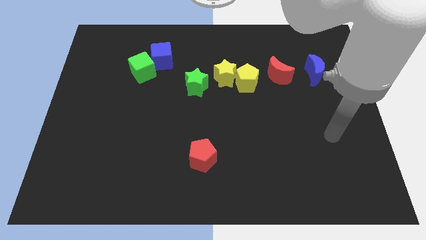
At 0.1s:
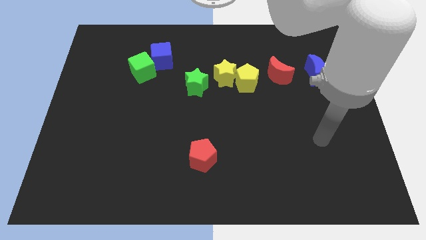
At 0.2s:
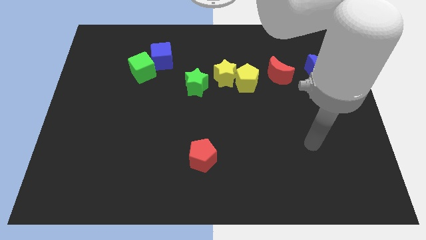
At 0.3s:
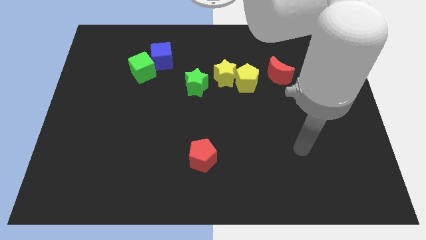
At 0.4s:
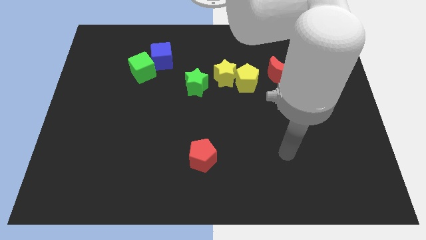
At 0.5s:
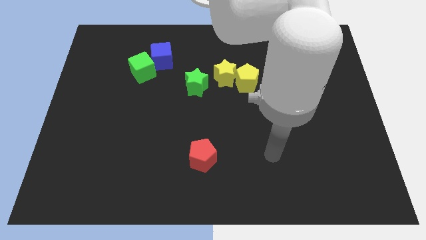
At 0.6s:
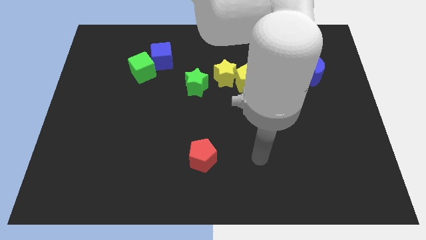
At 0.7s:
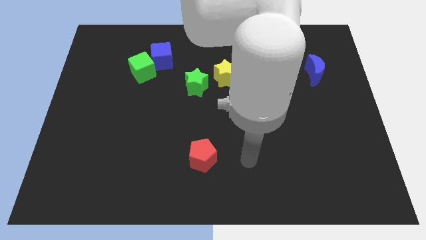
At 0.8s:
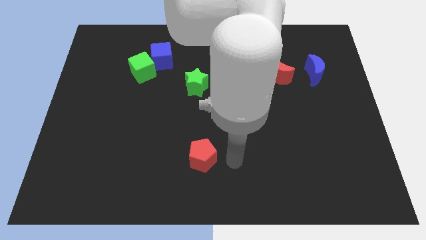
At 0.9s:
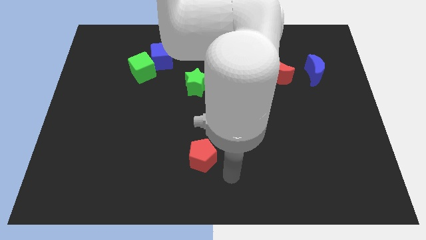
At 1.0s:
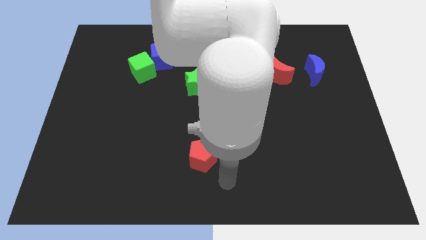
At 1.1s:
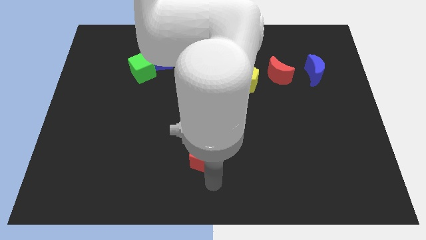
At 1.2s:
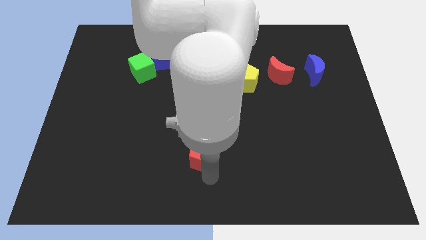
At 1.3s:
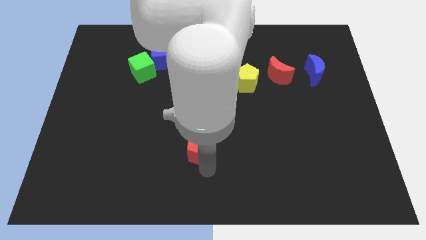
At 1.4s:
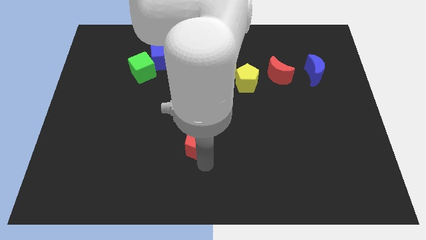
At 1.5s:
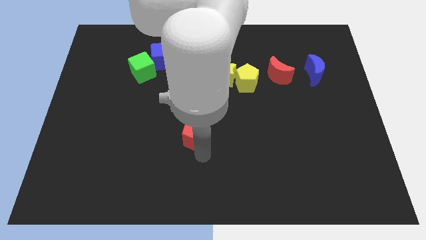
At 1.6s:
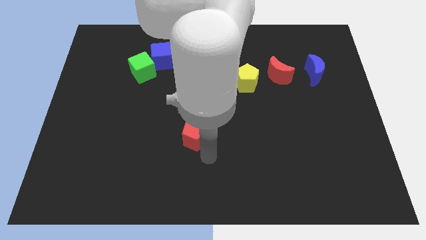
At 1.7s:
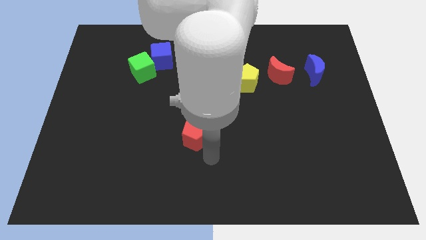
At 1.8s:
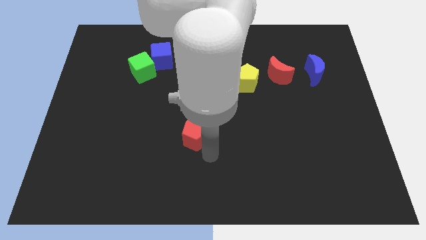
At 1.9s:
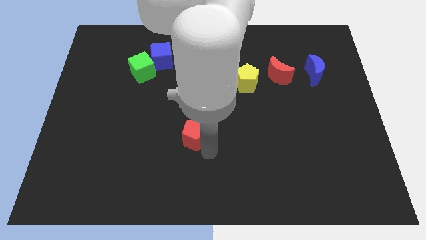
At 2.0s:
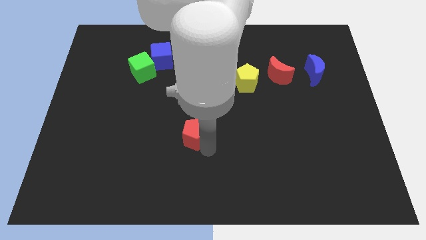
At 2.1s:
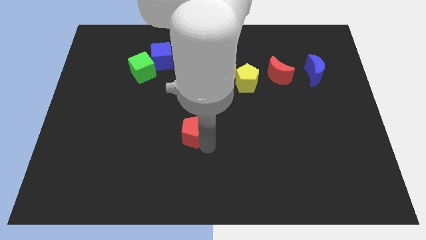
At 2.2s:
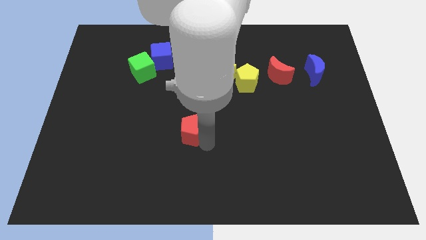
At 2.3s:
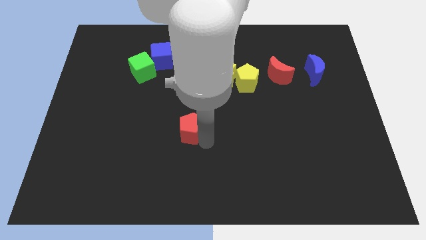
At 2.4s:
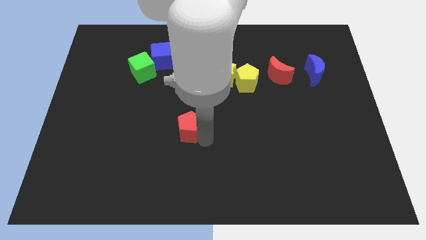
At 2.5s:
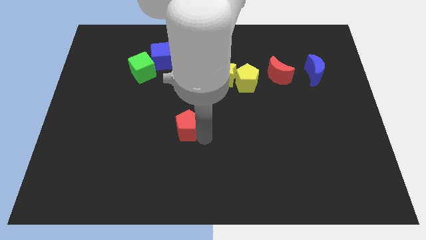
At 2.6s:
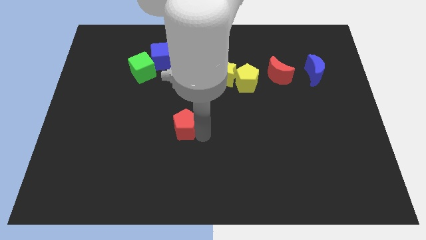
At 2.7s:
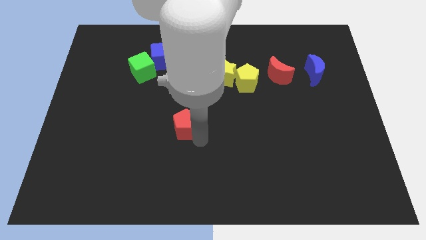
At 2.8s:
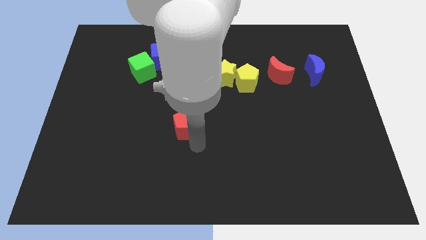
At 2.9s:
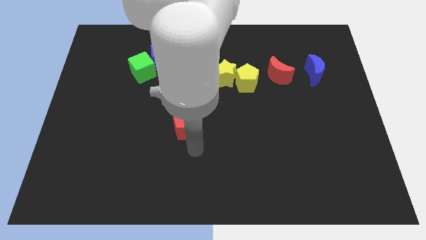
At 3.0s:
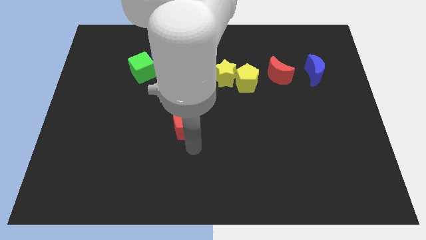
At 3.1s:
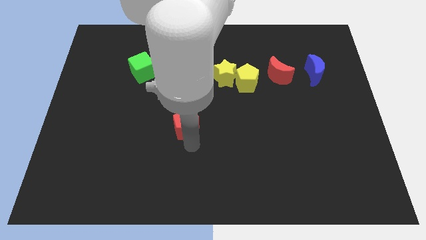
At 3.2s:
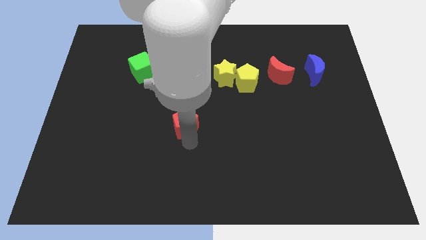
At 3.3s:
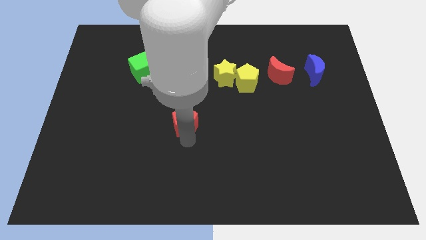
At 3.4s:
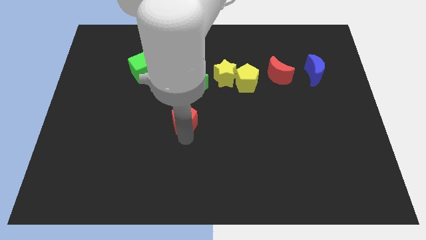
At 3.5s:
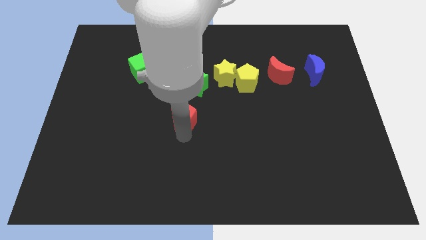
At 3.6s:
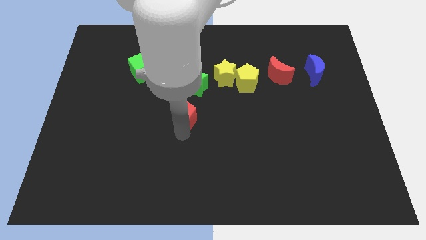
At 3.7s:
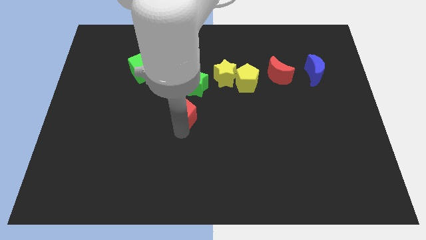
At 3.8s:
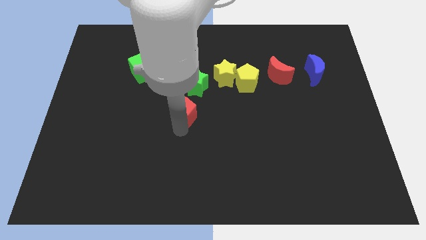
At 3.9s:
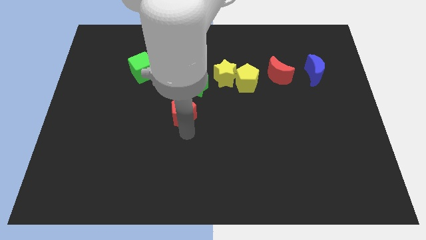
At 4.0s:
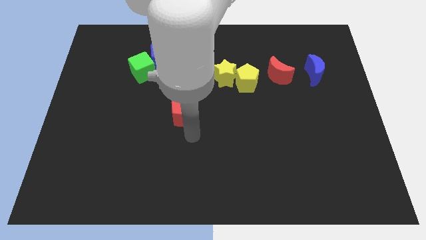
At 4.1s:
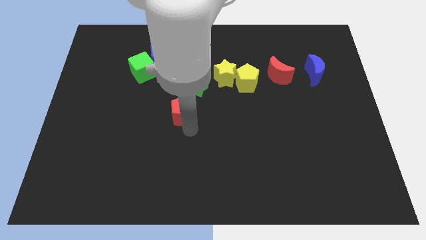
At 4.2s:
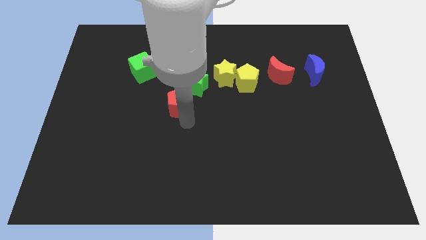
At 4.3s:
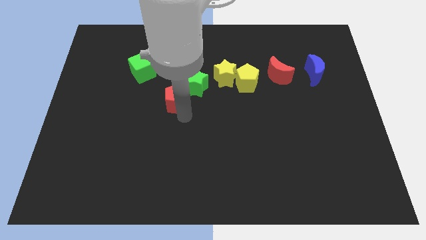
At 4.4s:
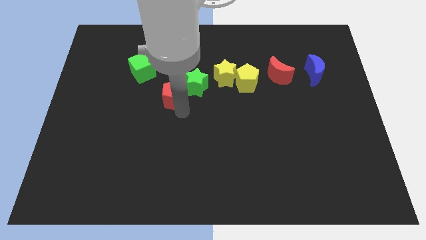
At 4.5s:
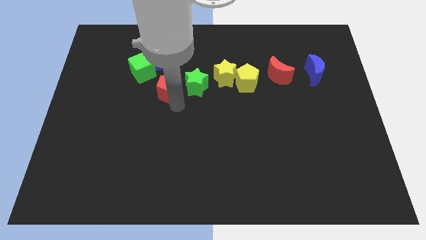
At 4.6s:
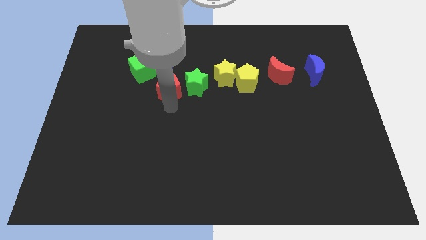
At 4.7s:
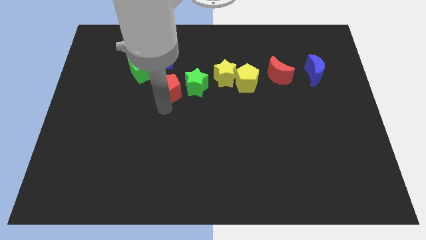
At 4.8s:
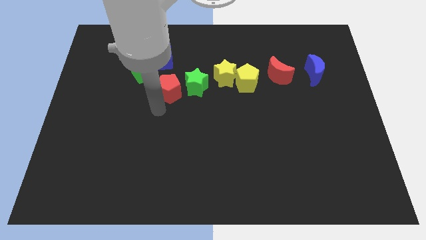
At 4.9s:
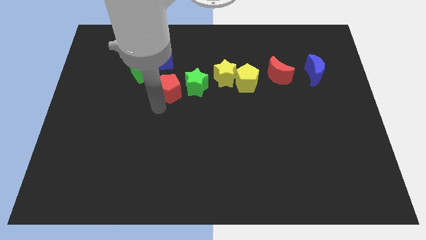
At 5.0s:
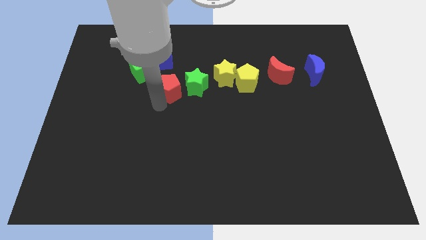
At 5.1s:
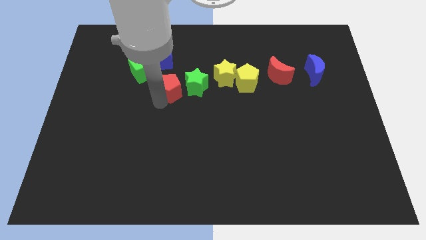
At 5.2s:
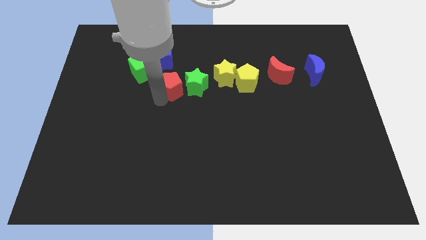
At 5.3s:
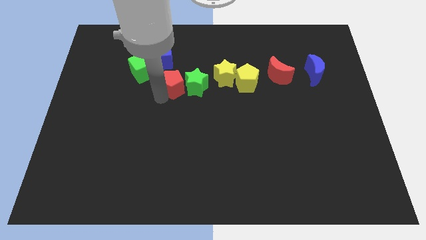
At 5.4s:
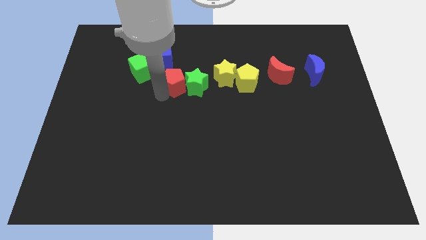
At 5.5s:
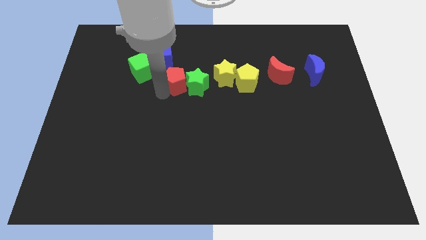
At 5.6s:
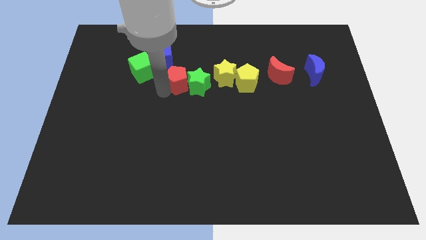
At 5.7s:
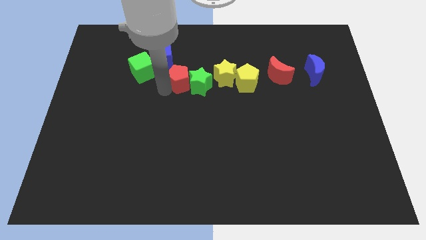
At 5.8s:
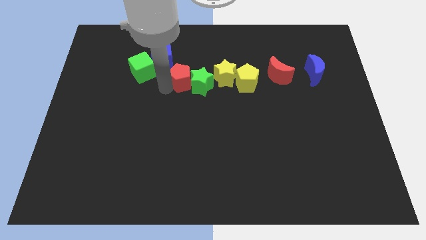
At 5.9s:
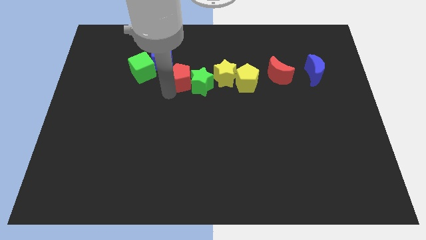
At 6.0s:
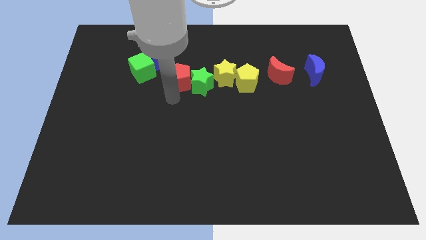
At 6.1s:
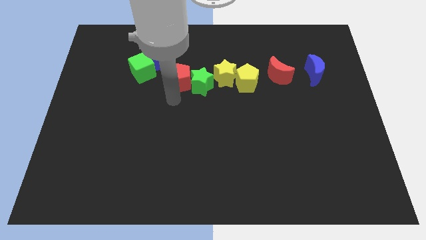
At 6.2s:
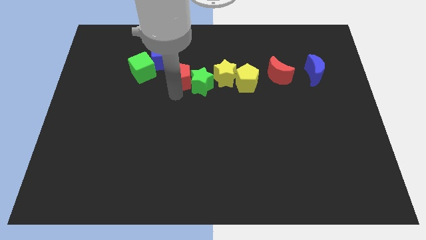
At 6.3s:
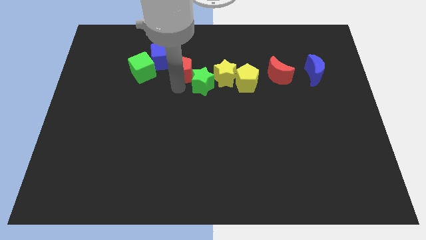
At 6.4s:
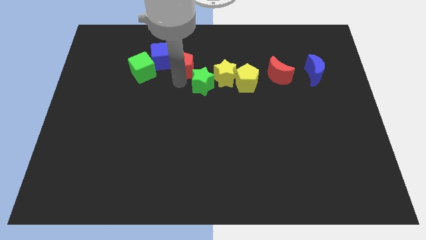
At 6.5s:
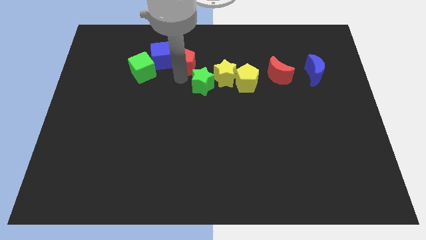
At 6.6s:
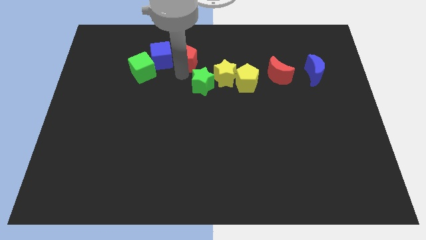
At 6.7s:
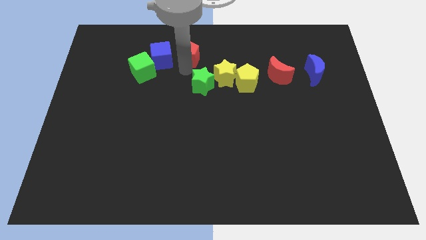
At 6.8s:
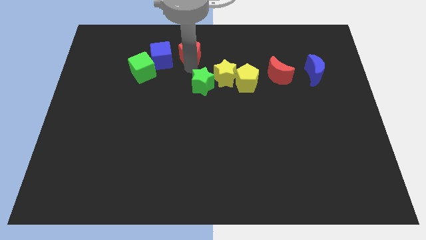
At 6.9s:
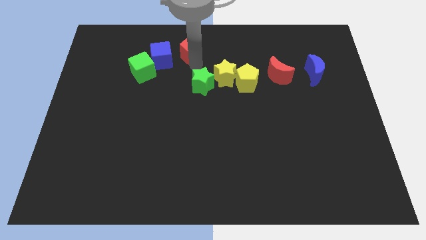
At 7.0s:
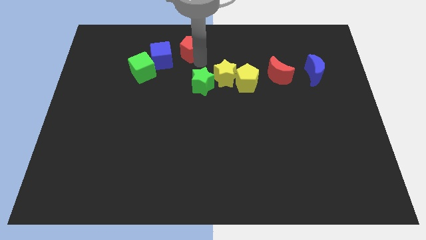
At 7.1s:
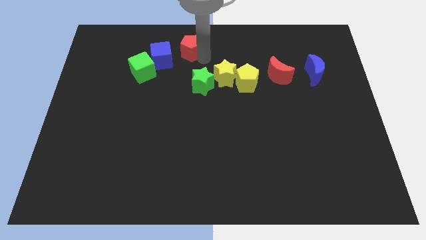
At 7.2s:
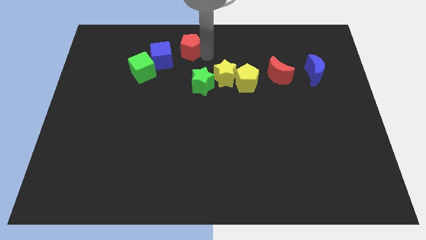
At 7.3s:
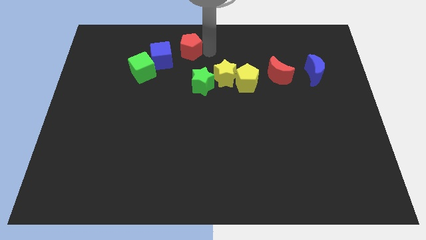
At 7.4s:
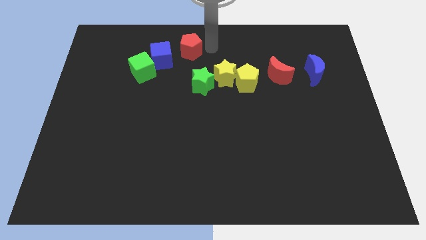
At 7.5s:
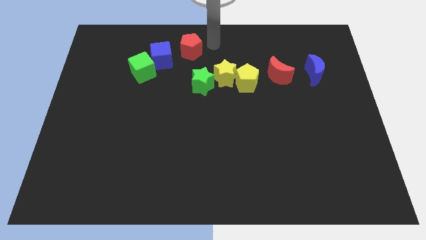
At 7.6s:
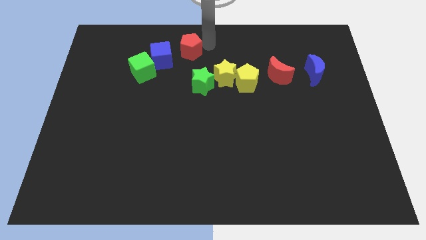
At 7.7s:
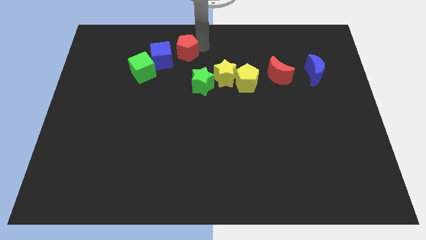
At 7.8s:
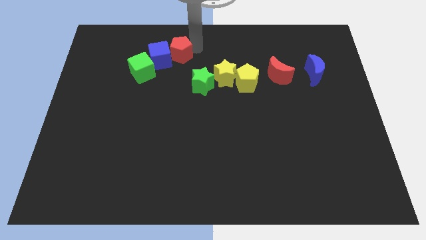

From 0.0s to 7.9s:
push the red pentagon diagonally up and to the right of the green cube
